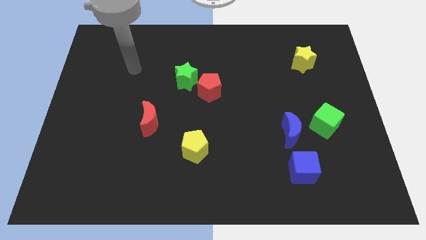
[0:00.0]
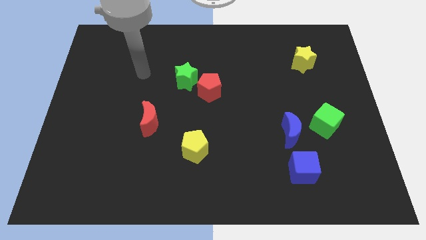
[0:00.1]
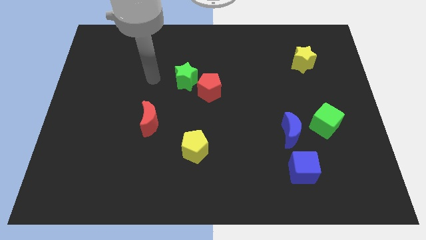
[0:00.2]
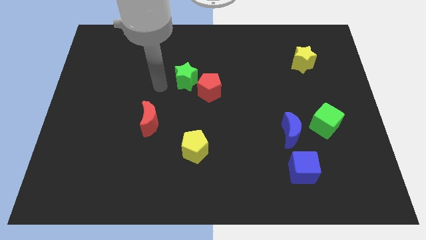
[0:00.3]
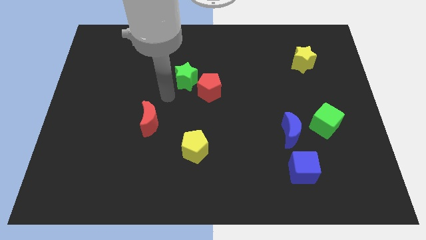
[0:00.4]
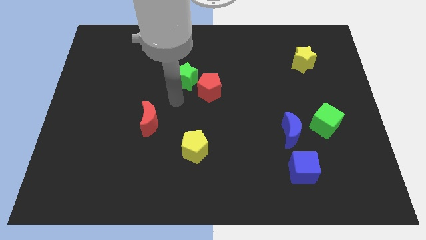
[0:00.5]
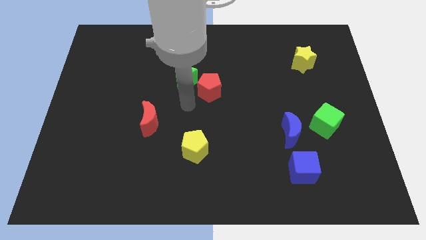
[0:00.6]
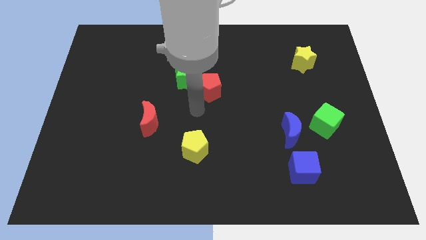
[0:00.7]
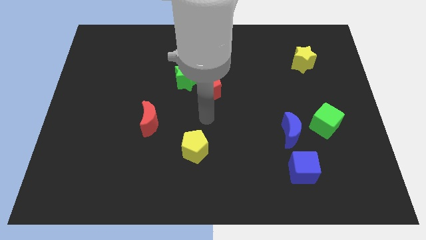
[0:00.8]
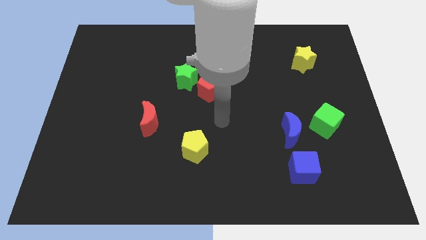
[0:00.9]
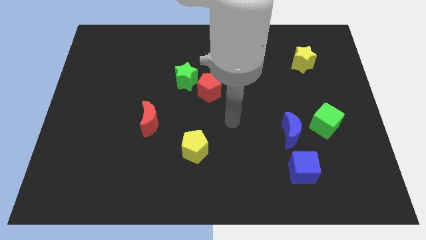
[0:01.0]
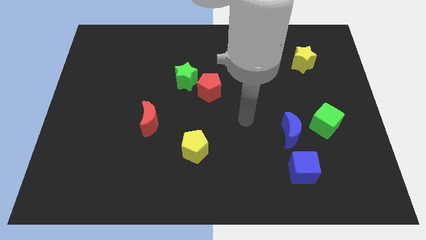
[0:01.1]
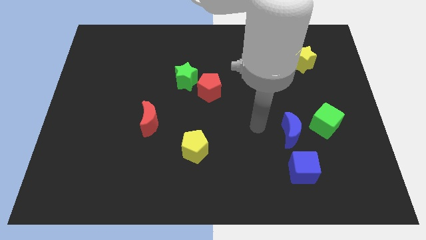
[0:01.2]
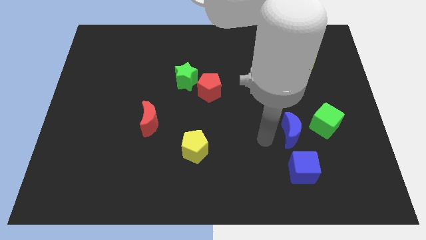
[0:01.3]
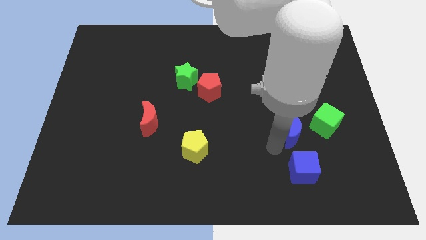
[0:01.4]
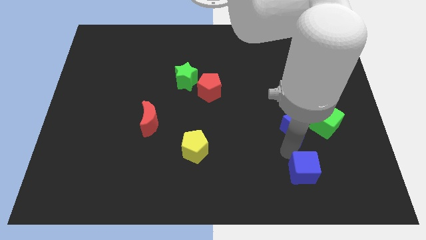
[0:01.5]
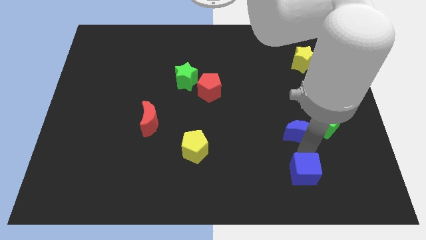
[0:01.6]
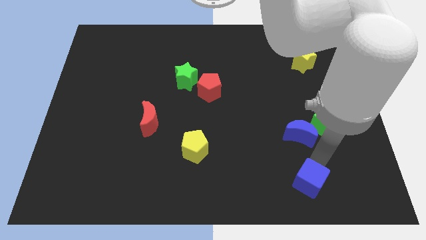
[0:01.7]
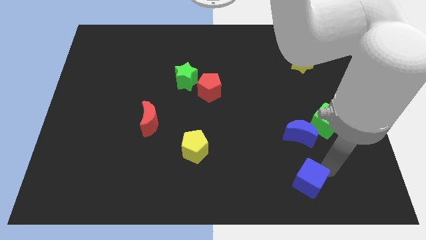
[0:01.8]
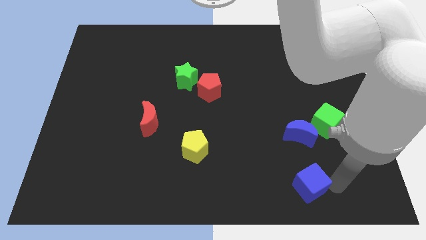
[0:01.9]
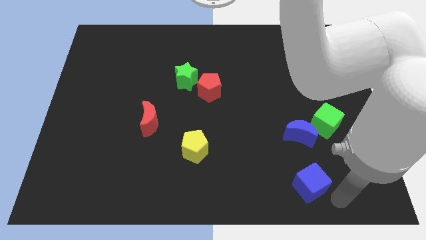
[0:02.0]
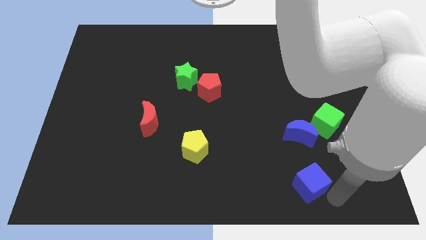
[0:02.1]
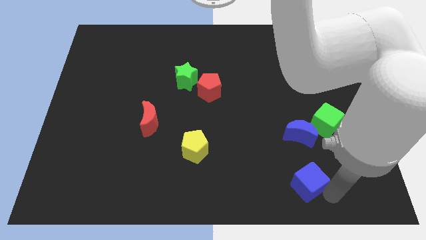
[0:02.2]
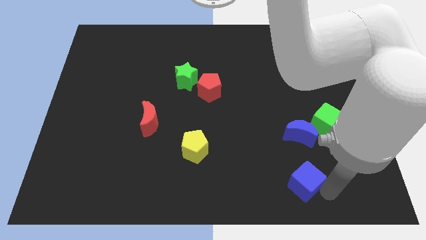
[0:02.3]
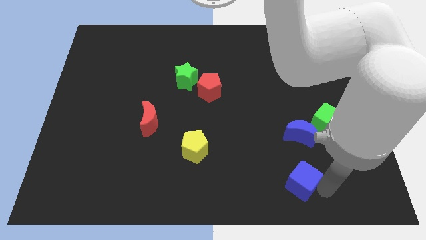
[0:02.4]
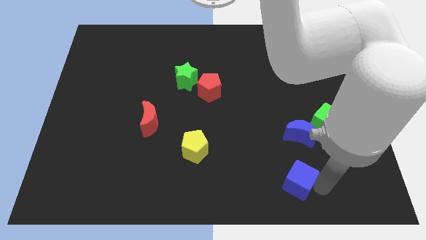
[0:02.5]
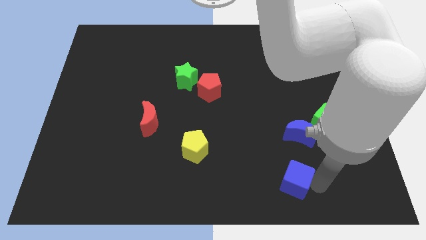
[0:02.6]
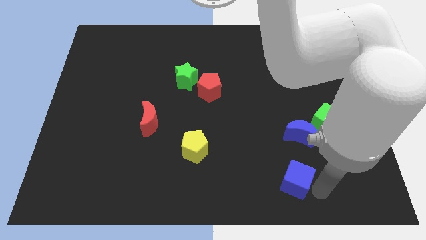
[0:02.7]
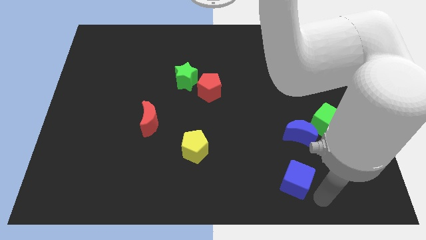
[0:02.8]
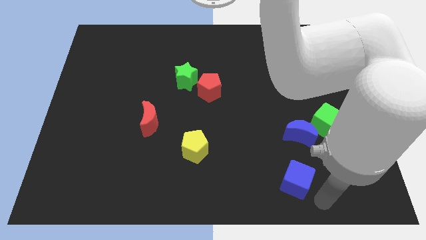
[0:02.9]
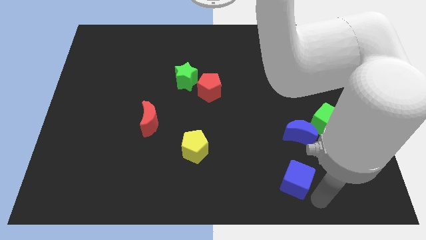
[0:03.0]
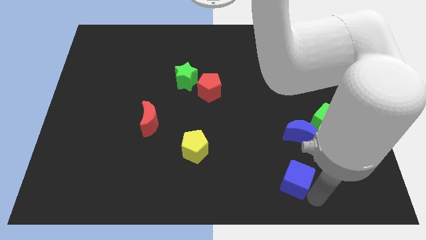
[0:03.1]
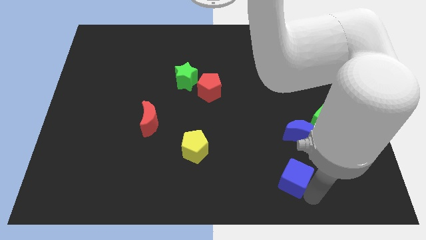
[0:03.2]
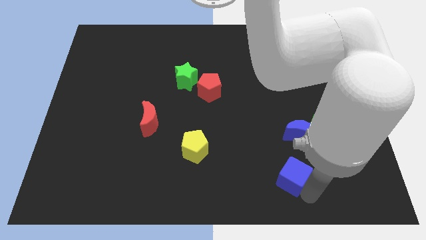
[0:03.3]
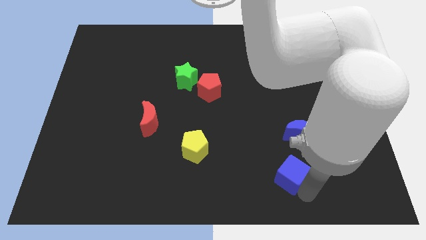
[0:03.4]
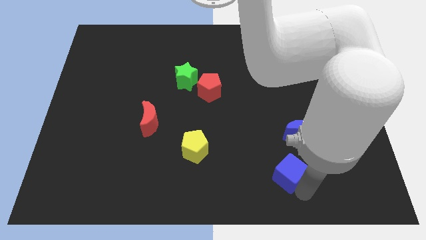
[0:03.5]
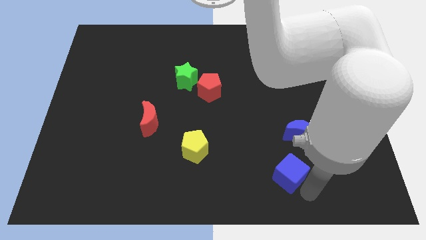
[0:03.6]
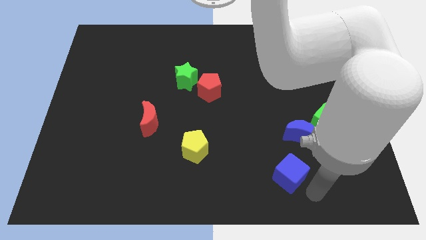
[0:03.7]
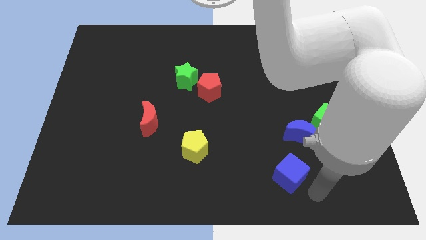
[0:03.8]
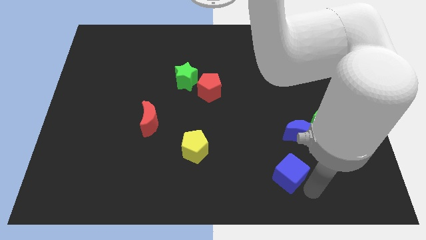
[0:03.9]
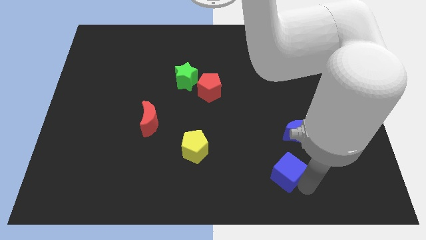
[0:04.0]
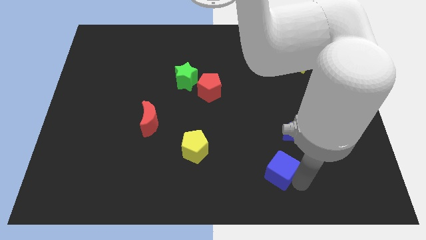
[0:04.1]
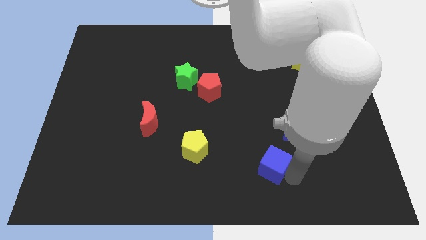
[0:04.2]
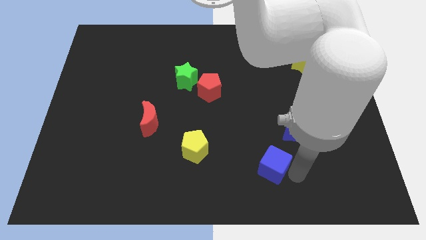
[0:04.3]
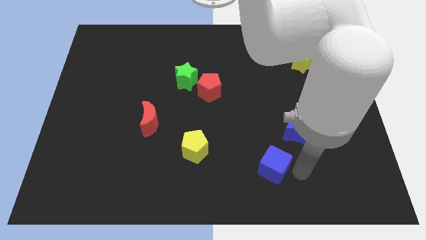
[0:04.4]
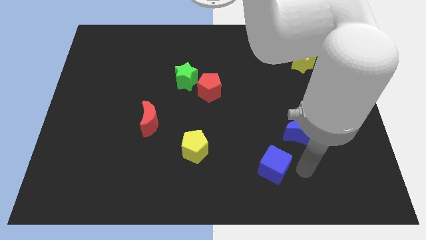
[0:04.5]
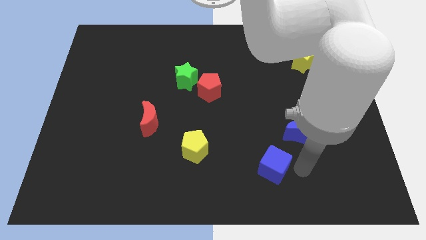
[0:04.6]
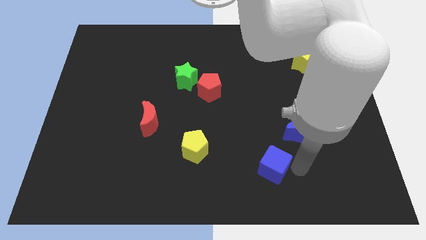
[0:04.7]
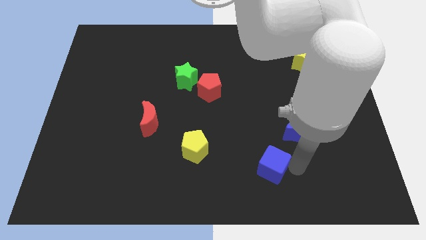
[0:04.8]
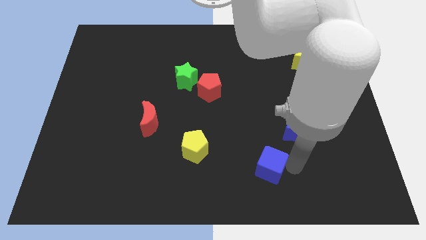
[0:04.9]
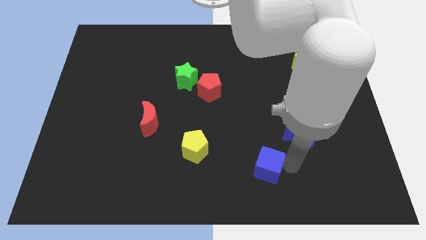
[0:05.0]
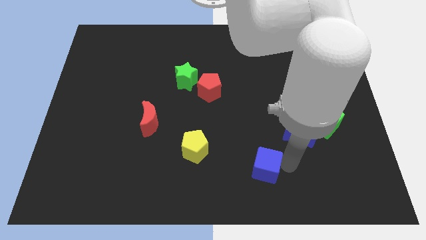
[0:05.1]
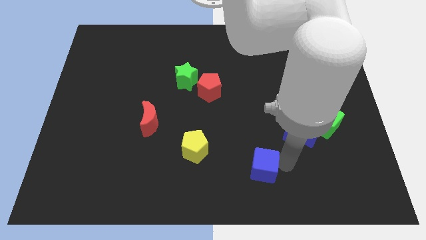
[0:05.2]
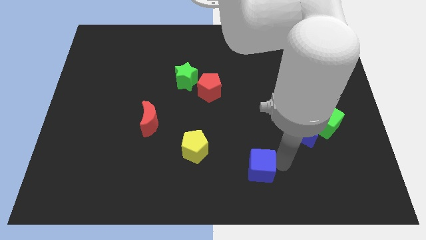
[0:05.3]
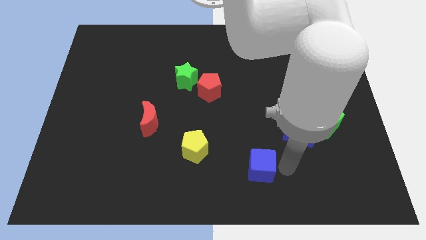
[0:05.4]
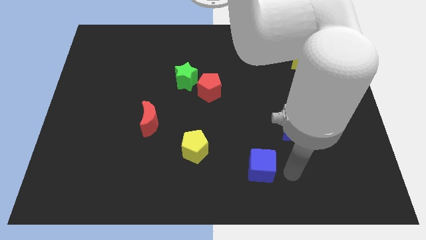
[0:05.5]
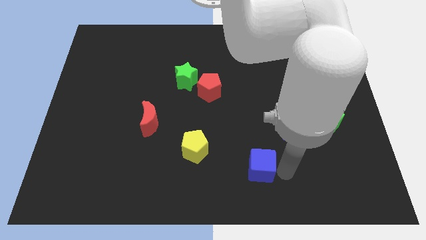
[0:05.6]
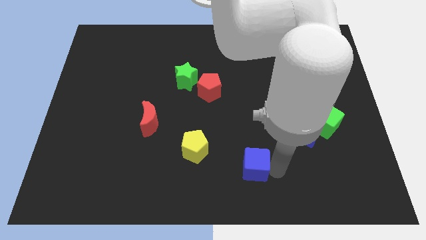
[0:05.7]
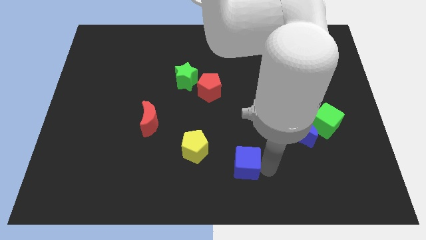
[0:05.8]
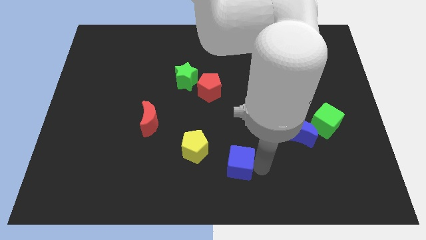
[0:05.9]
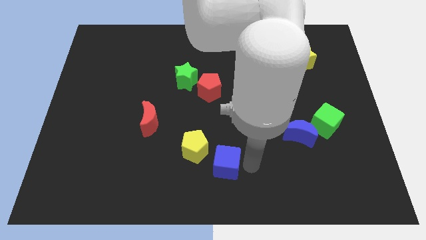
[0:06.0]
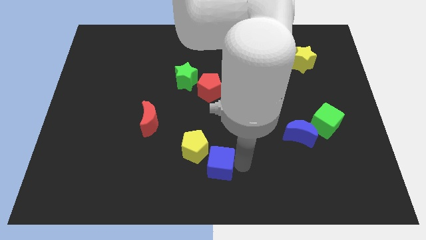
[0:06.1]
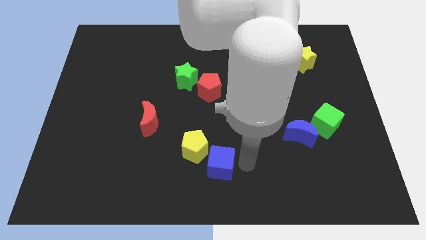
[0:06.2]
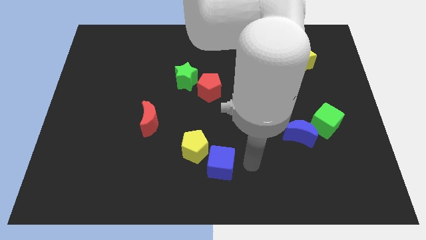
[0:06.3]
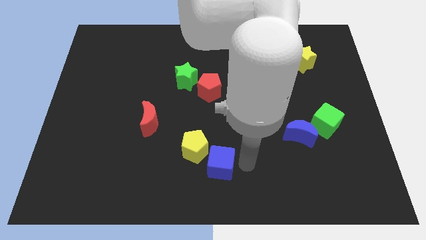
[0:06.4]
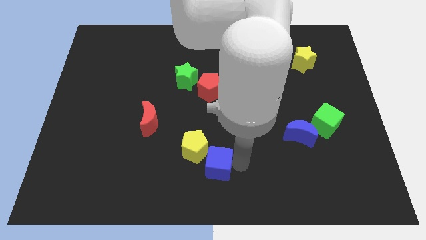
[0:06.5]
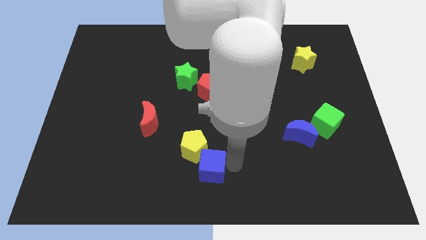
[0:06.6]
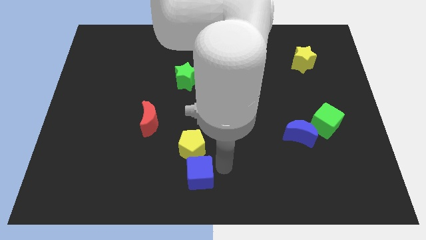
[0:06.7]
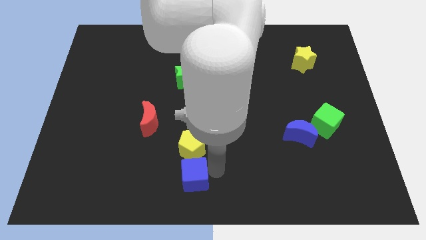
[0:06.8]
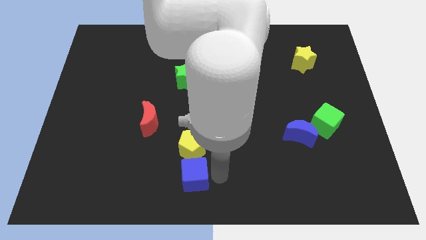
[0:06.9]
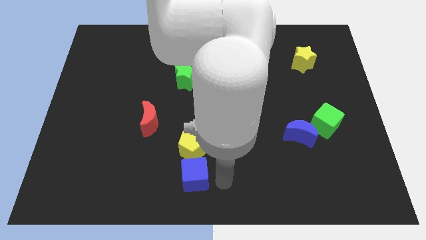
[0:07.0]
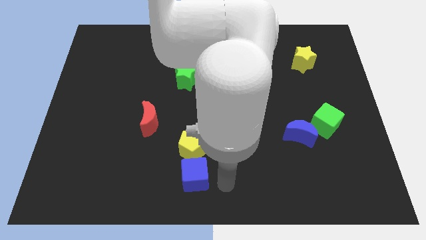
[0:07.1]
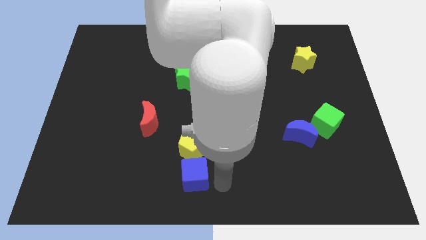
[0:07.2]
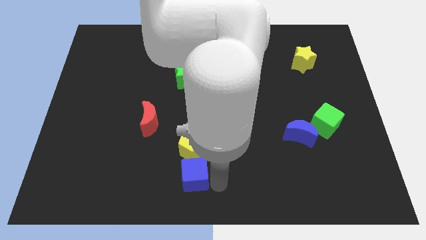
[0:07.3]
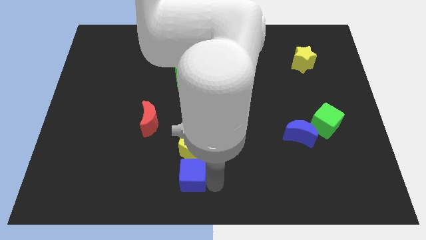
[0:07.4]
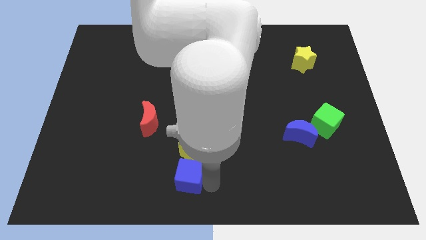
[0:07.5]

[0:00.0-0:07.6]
move the blue cube to the bottom left of the yellow pentagon

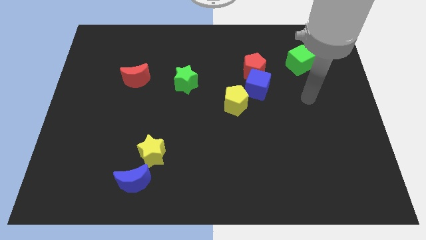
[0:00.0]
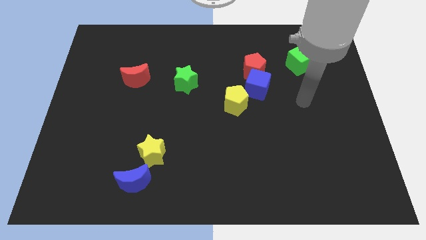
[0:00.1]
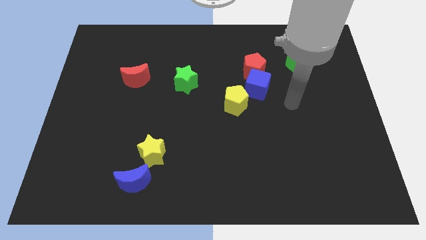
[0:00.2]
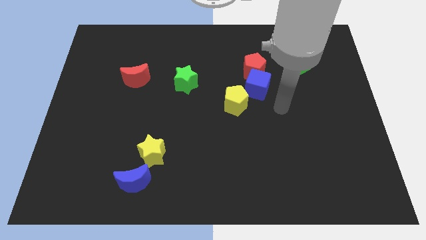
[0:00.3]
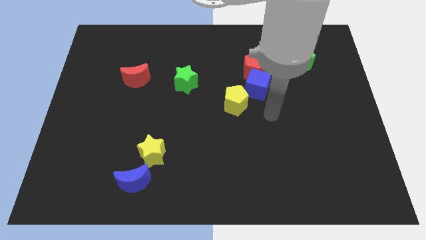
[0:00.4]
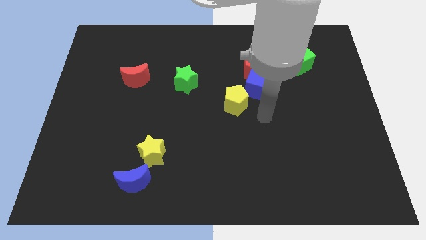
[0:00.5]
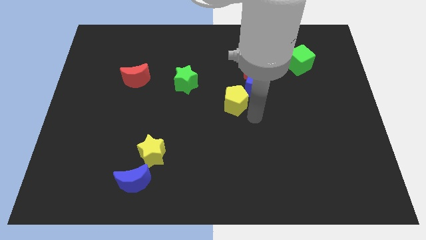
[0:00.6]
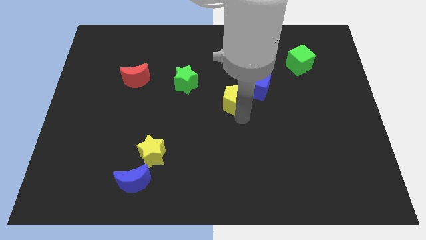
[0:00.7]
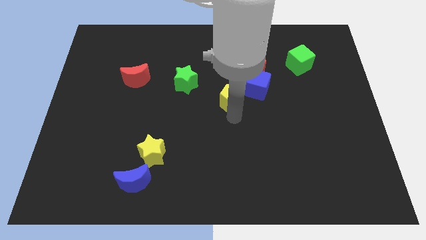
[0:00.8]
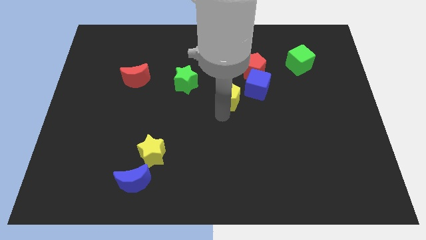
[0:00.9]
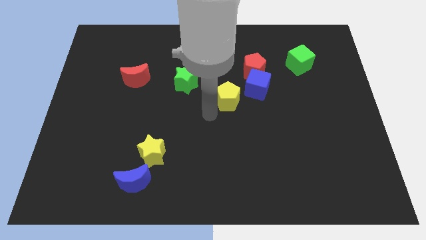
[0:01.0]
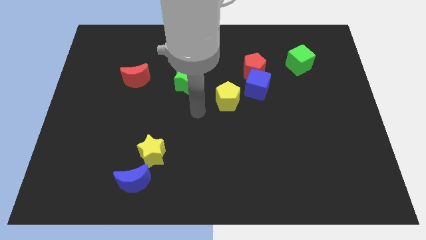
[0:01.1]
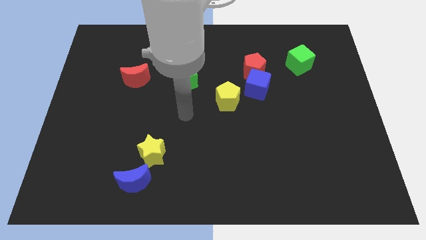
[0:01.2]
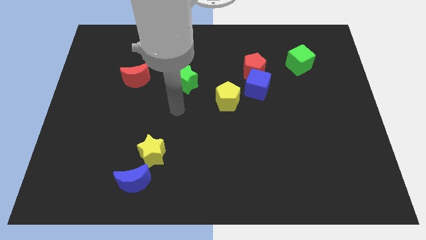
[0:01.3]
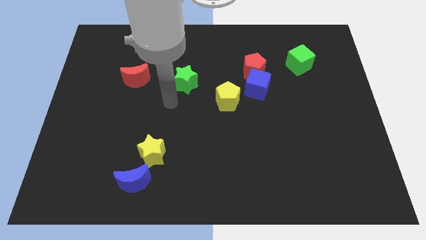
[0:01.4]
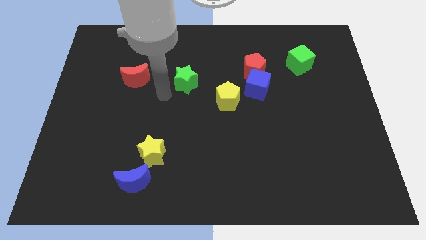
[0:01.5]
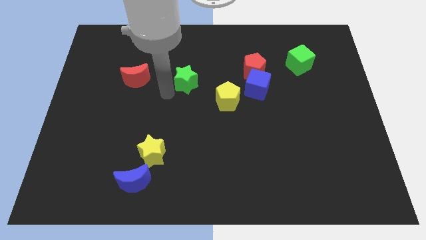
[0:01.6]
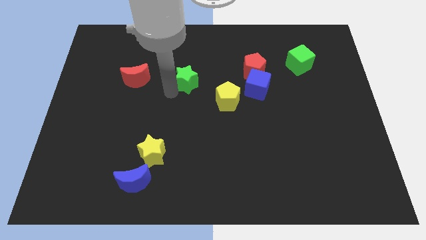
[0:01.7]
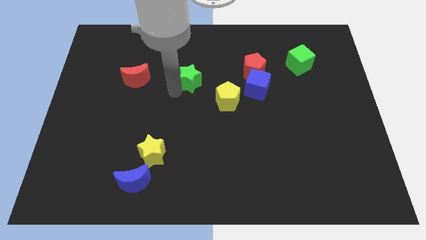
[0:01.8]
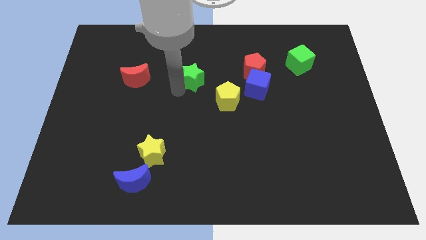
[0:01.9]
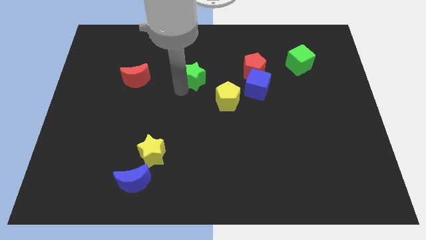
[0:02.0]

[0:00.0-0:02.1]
slide the green star to the left of the red pentagon
